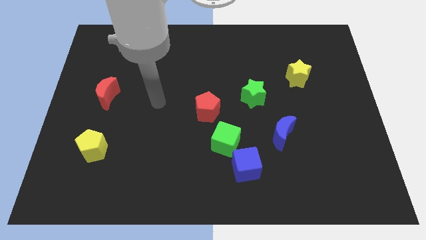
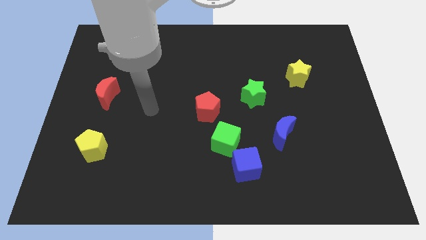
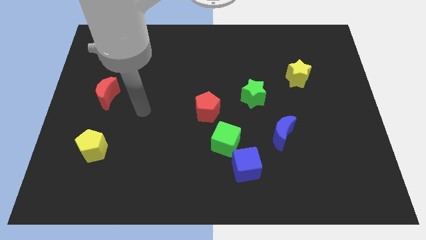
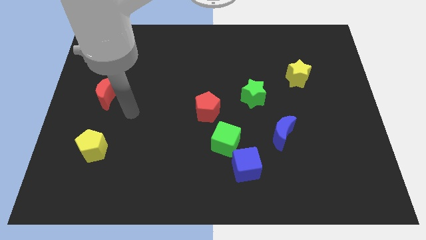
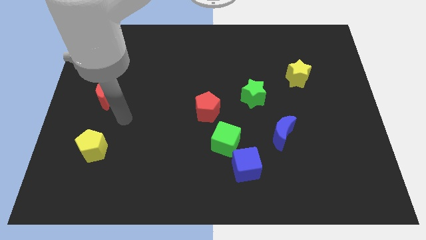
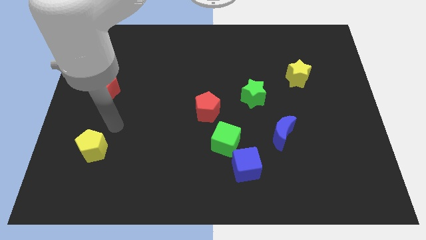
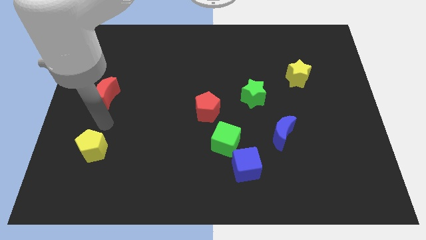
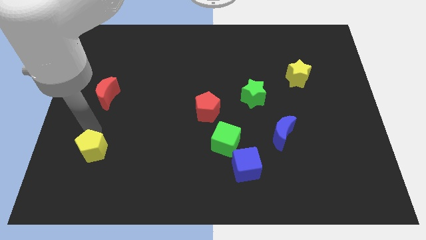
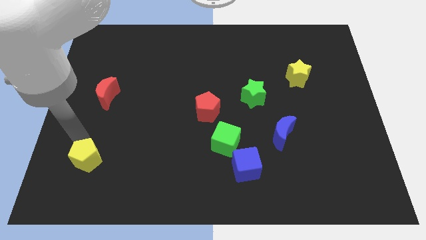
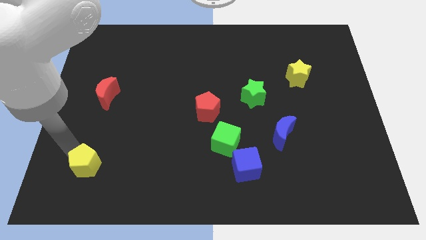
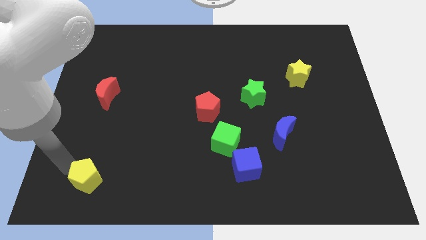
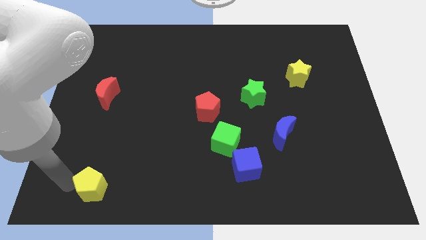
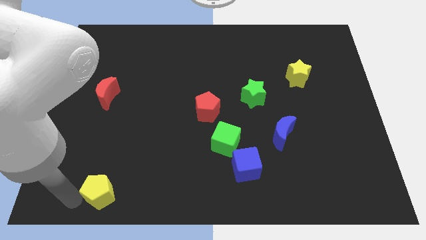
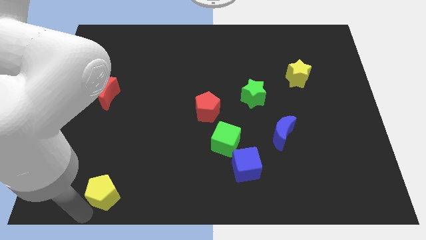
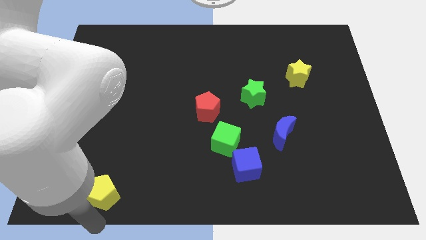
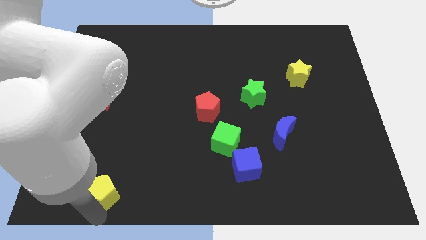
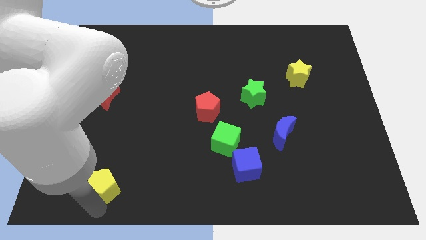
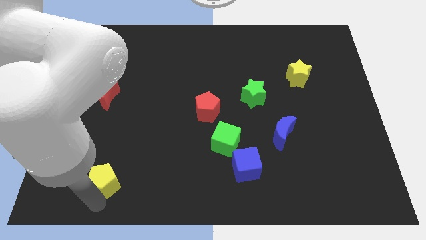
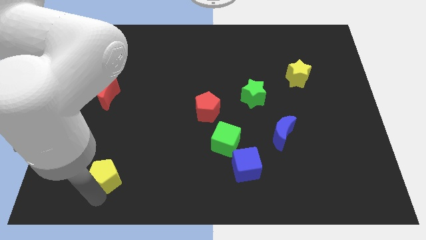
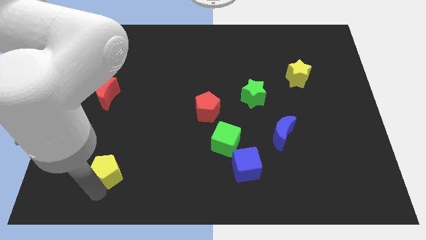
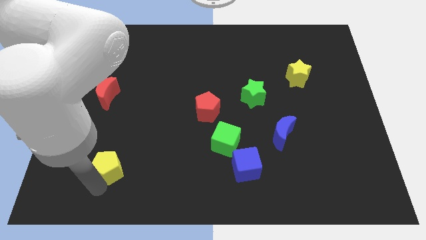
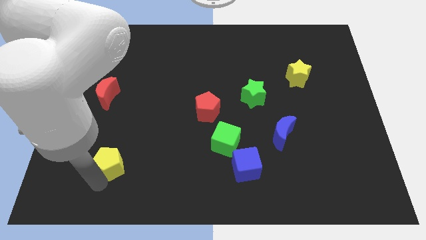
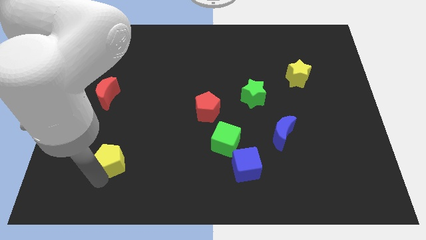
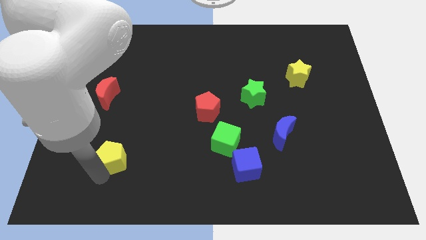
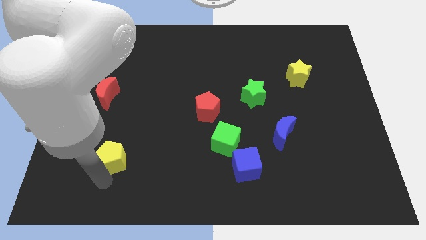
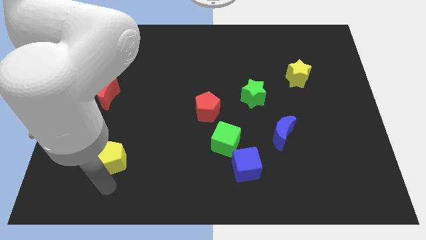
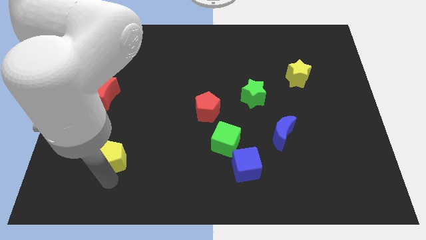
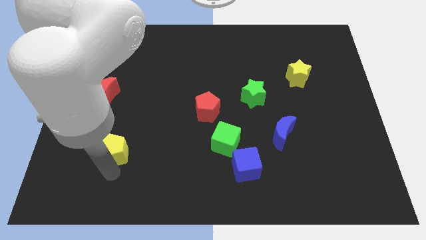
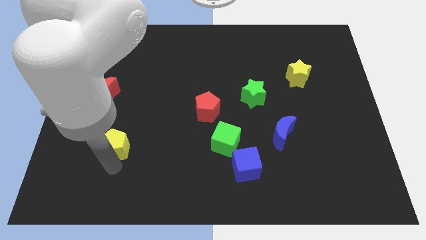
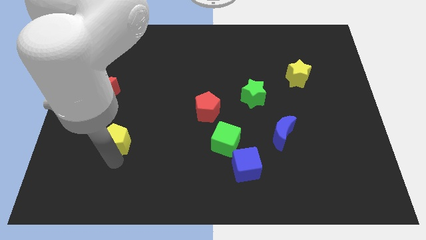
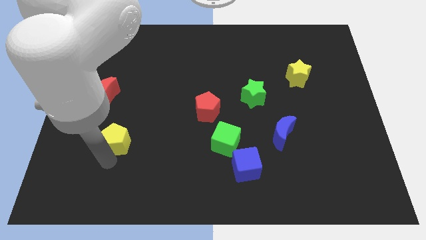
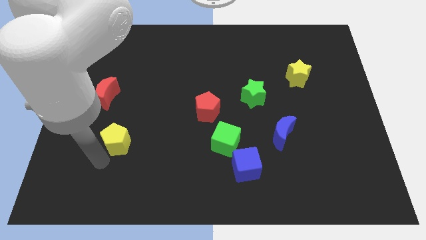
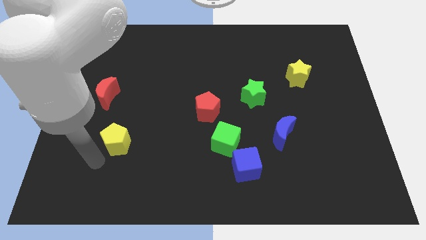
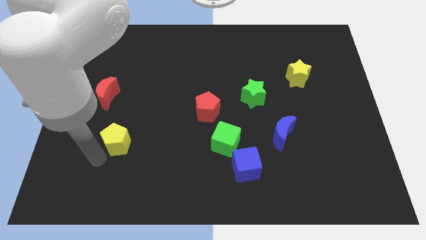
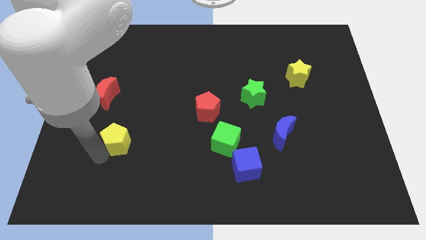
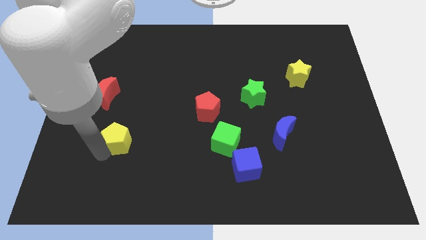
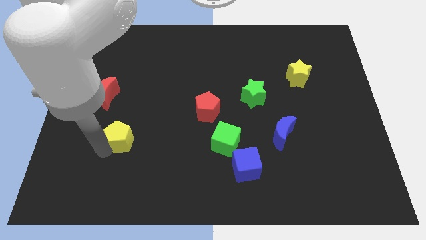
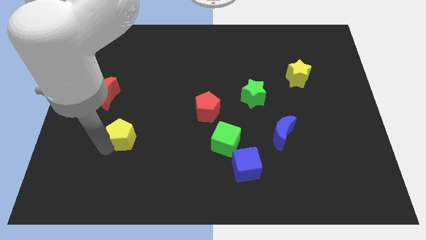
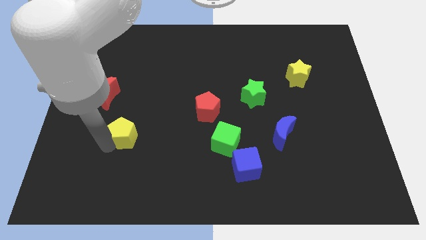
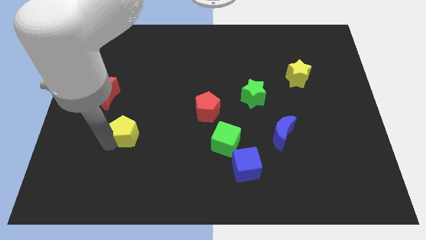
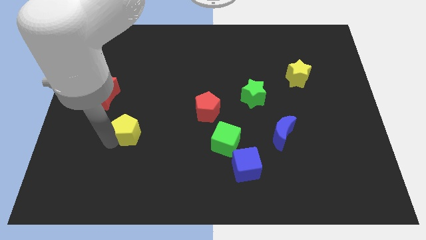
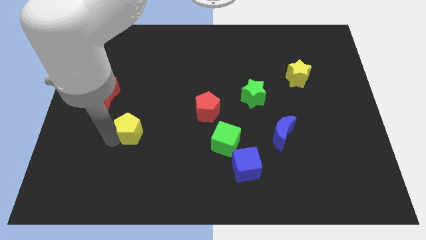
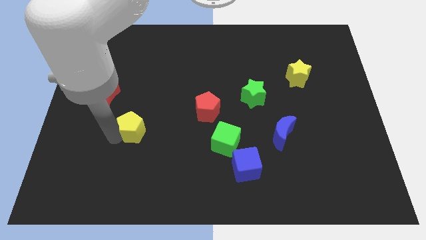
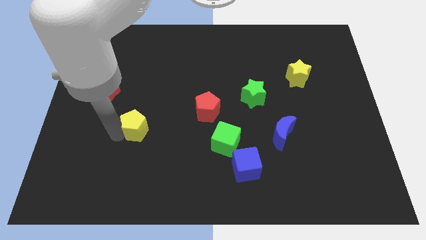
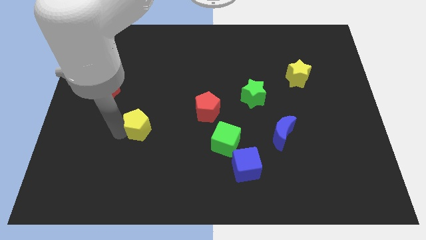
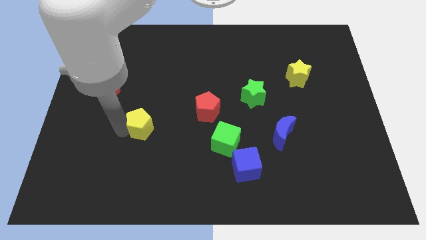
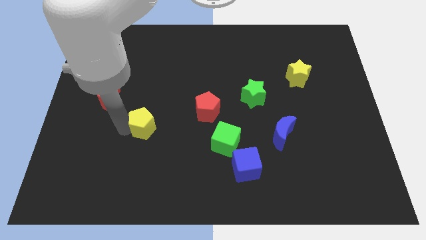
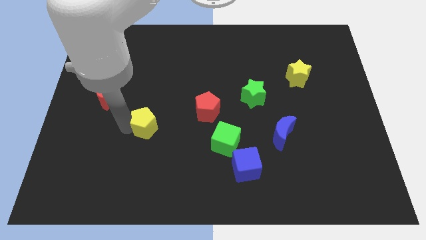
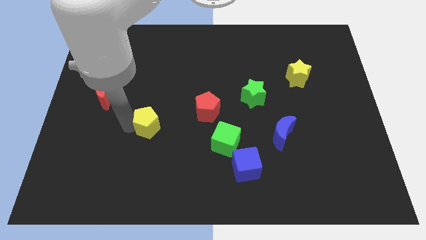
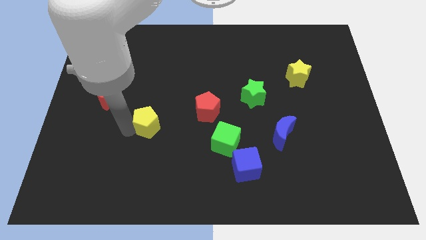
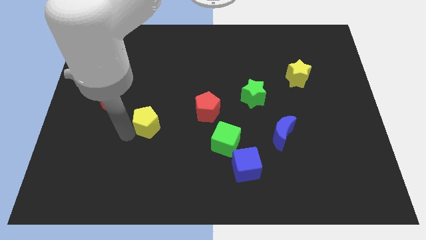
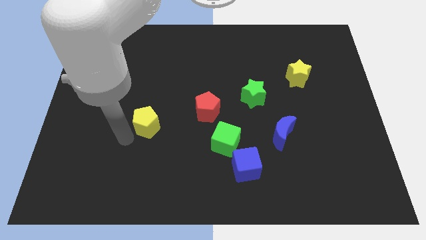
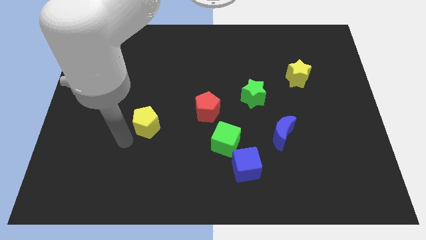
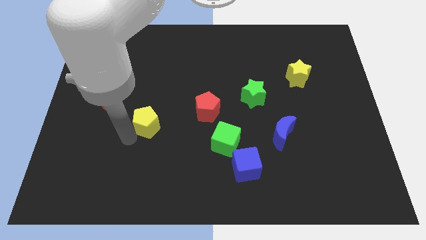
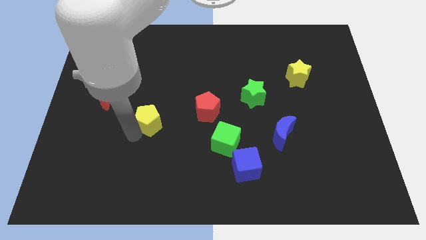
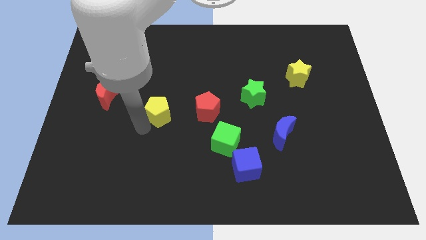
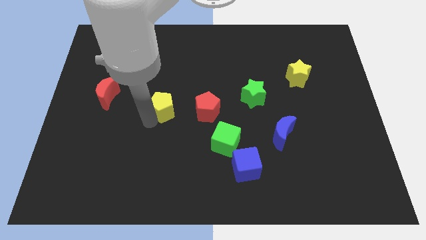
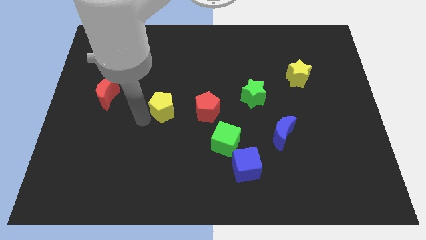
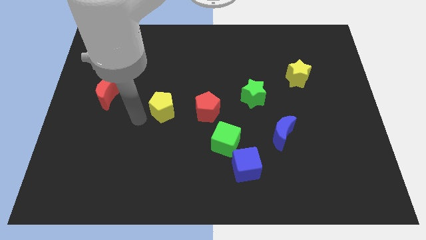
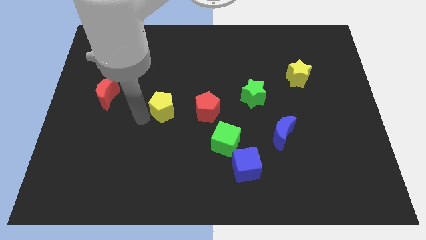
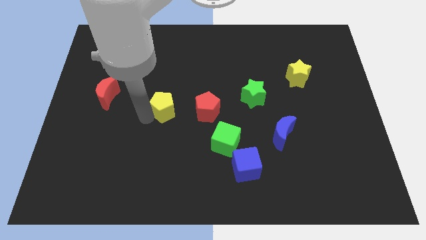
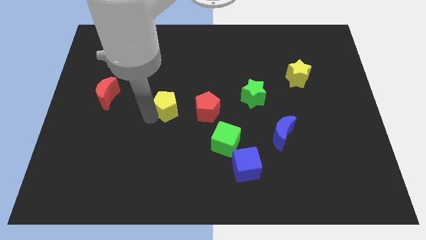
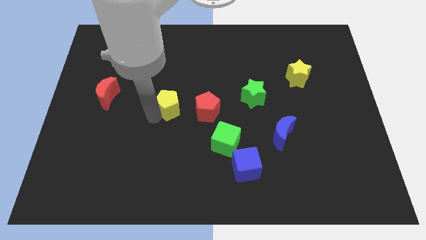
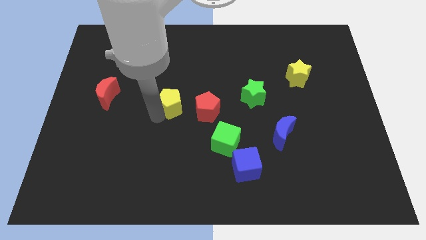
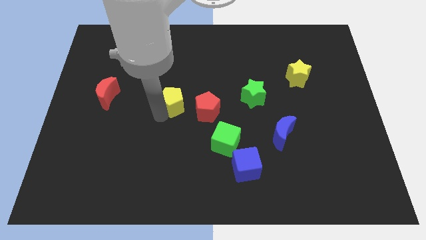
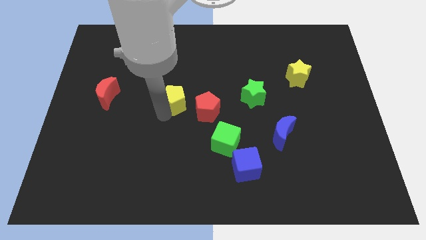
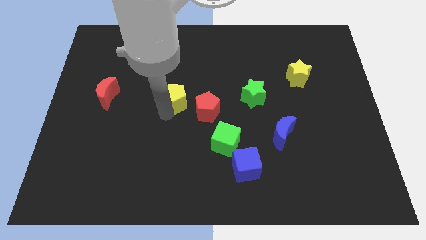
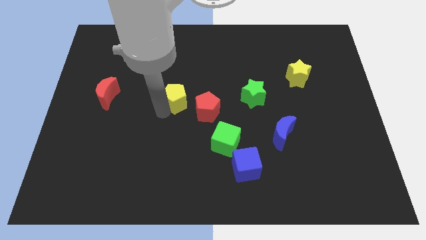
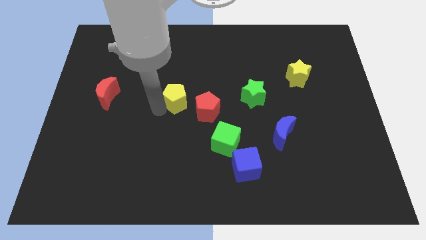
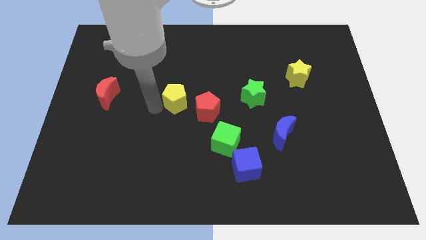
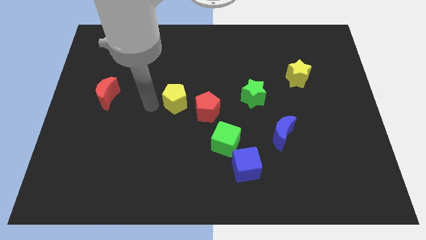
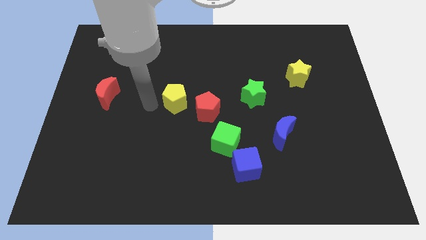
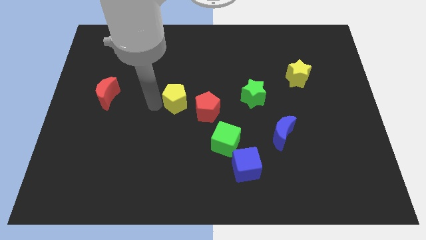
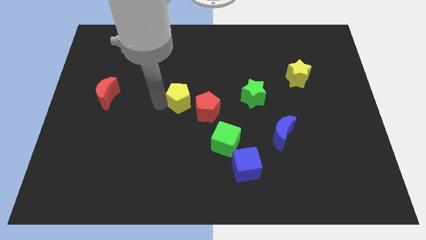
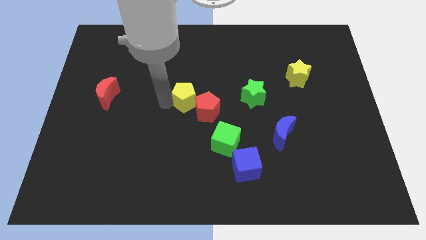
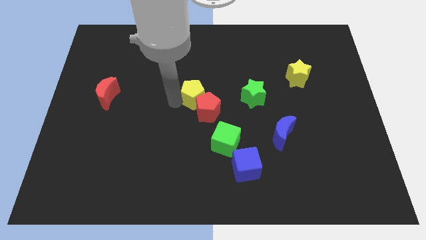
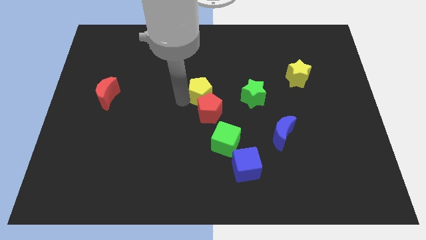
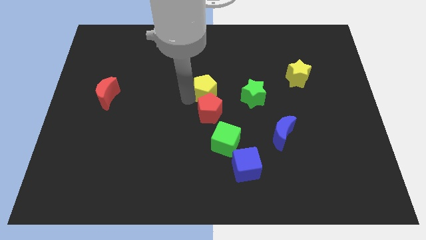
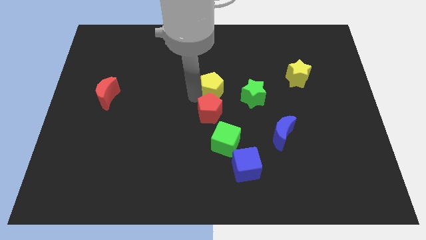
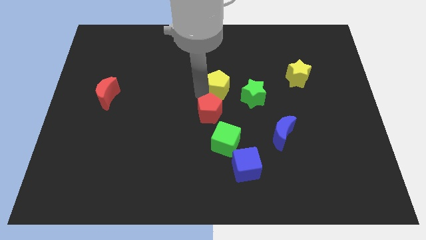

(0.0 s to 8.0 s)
put the yellow pentagon diagonally up and to the left of the green star
